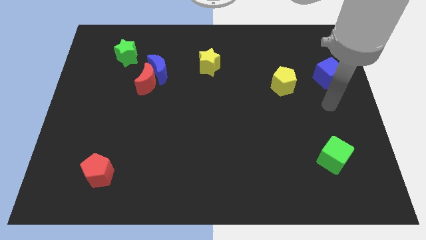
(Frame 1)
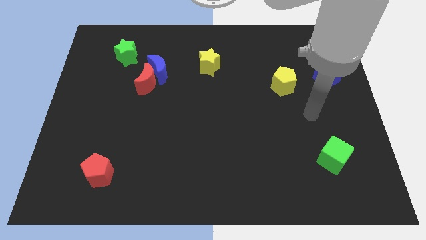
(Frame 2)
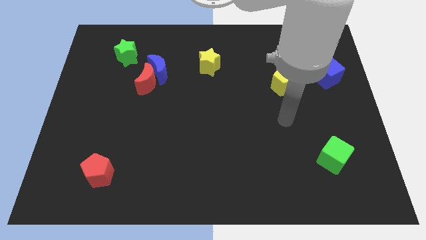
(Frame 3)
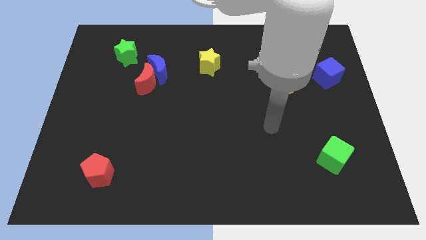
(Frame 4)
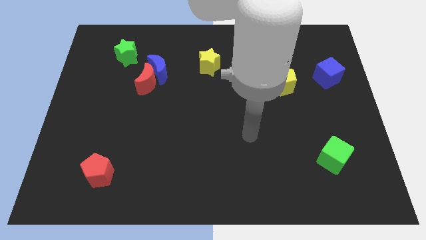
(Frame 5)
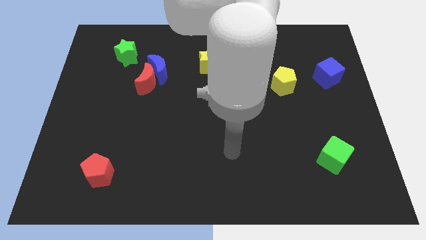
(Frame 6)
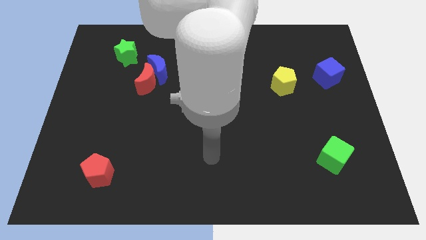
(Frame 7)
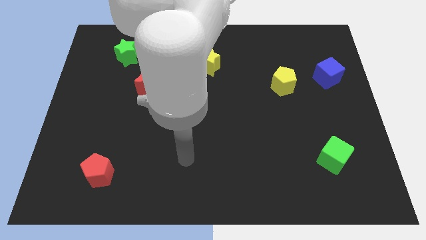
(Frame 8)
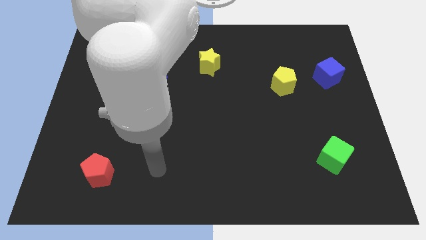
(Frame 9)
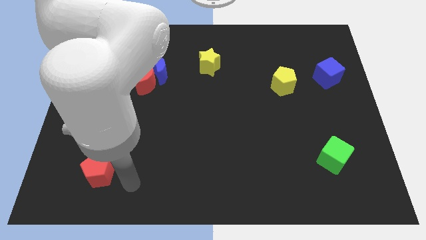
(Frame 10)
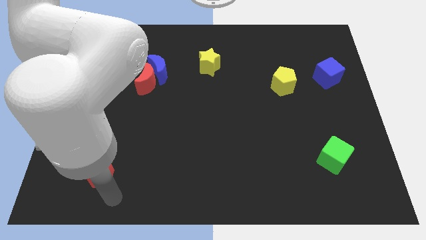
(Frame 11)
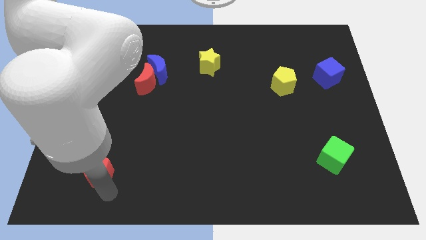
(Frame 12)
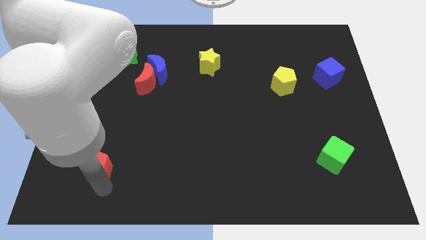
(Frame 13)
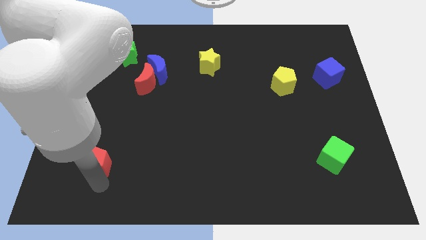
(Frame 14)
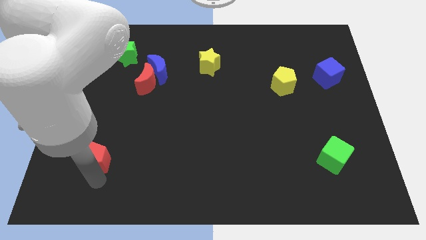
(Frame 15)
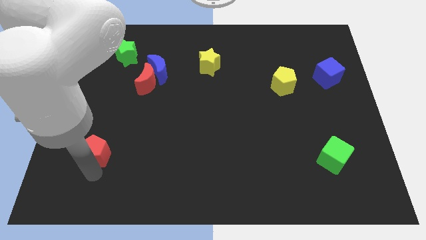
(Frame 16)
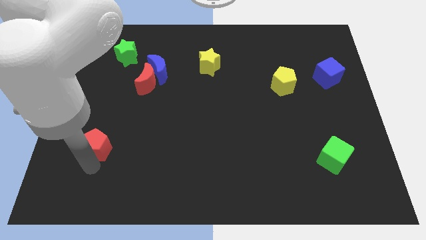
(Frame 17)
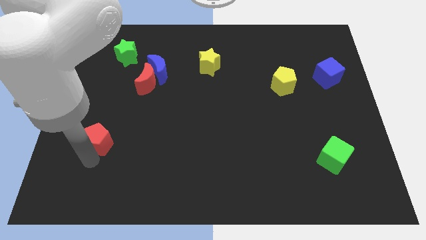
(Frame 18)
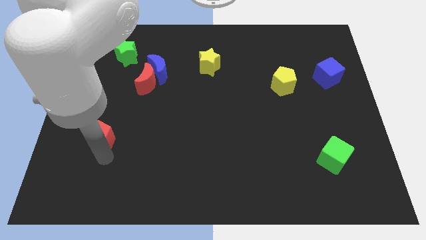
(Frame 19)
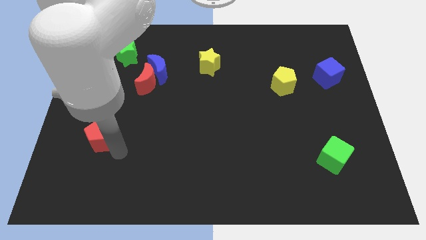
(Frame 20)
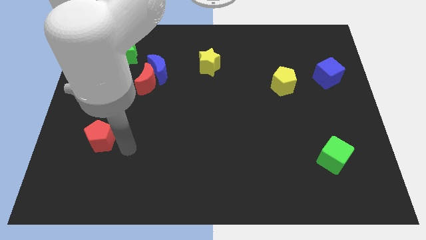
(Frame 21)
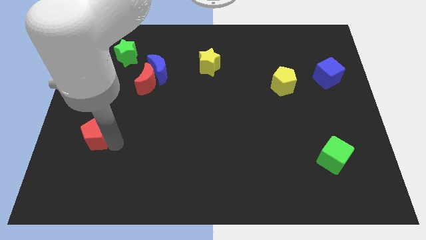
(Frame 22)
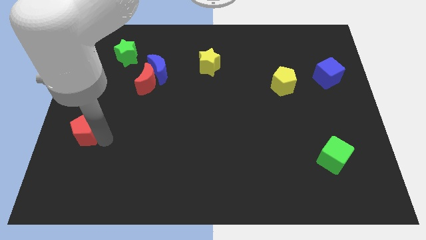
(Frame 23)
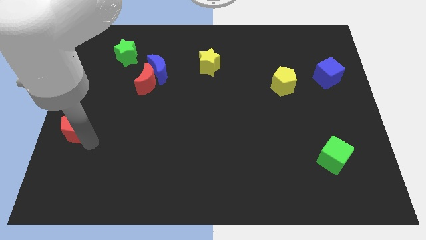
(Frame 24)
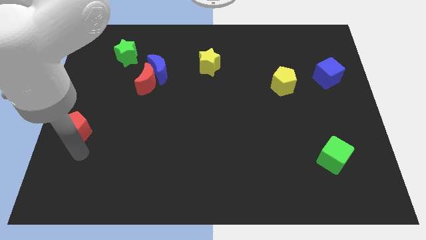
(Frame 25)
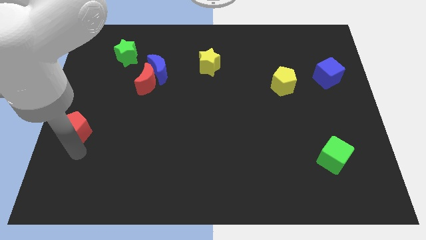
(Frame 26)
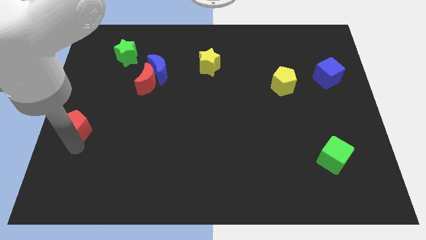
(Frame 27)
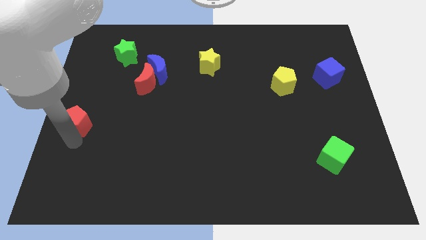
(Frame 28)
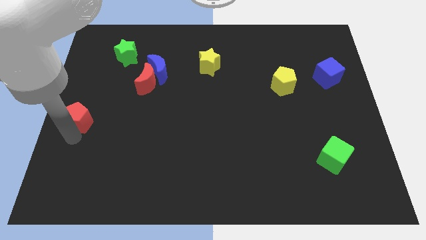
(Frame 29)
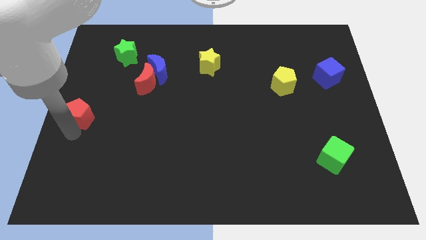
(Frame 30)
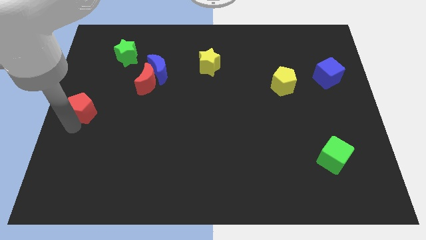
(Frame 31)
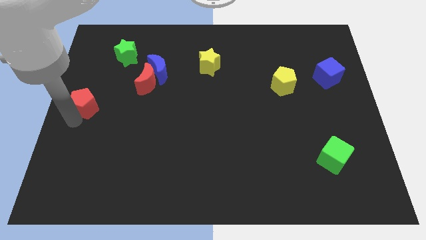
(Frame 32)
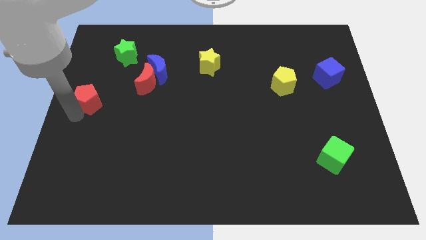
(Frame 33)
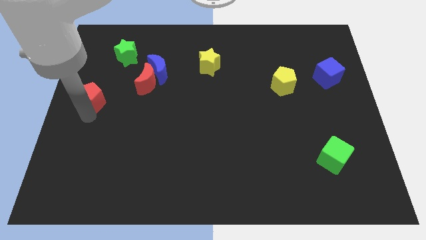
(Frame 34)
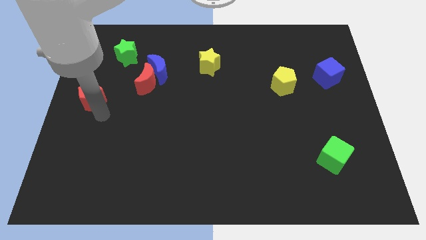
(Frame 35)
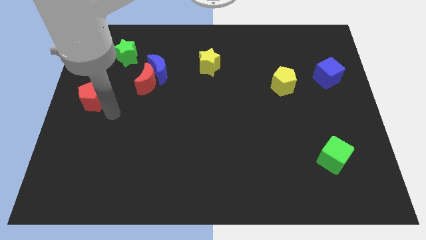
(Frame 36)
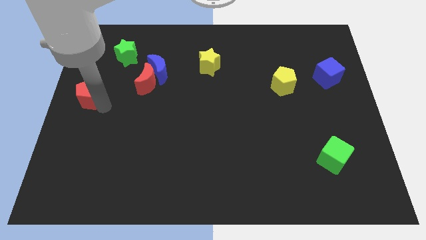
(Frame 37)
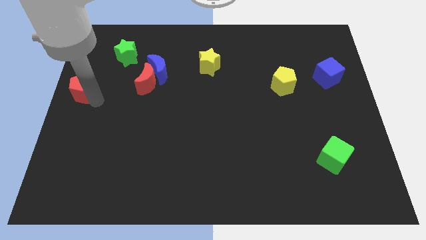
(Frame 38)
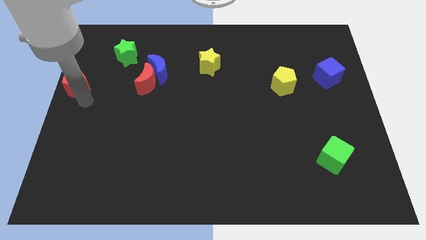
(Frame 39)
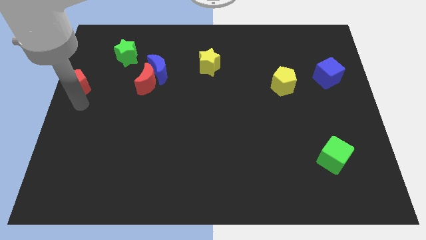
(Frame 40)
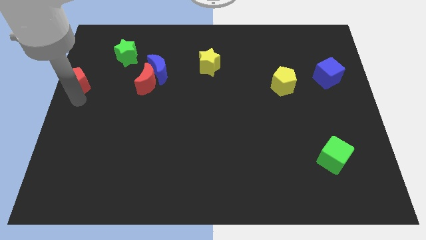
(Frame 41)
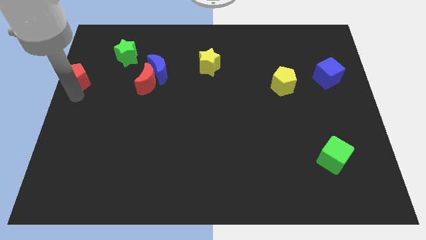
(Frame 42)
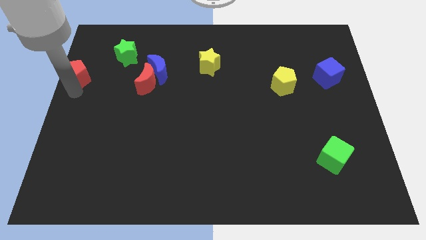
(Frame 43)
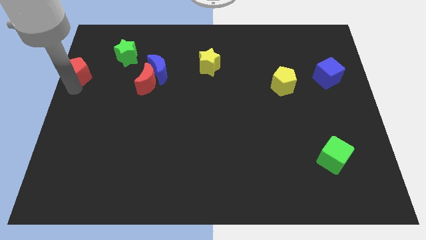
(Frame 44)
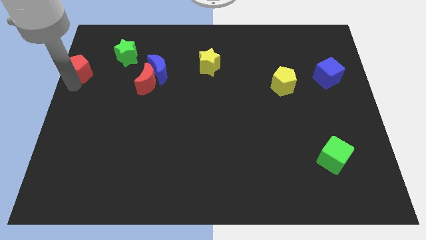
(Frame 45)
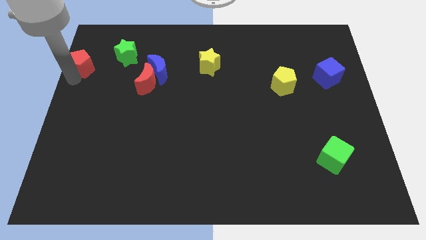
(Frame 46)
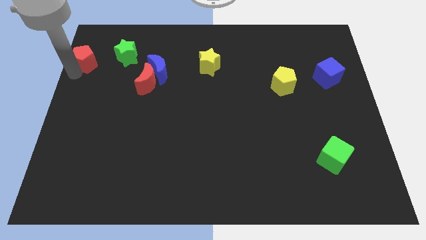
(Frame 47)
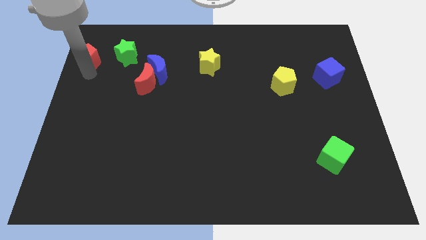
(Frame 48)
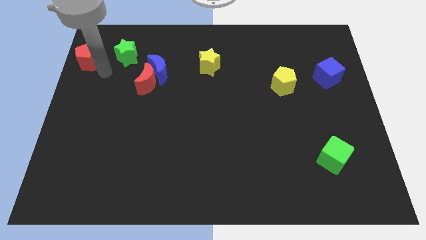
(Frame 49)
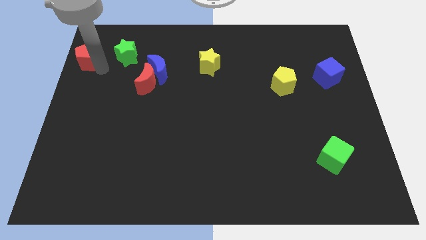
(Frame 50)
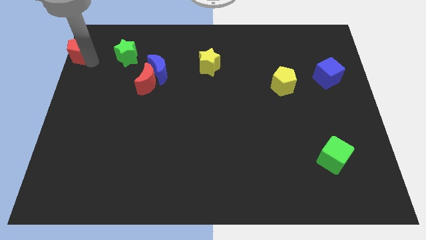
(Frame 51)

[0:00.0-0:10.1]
put the red pentagon to the top left of the board

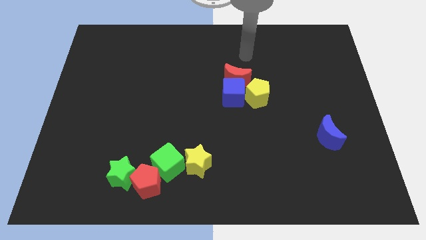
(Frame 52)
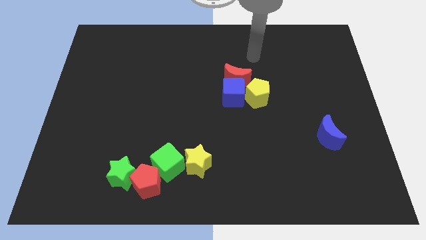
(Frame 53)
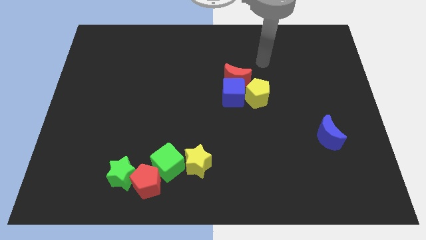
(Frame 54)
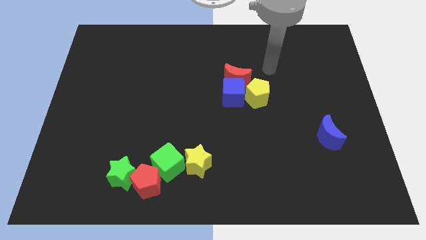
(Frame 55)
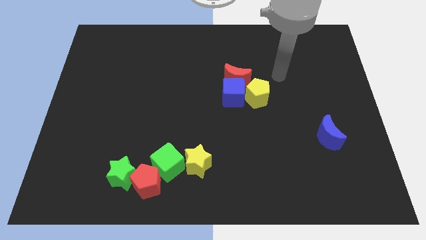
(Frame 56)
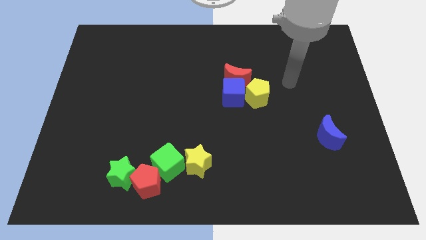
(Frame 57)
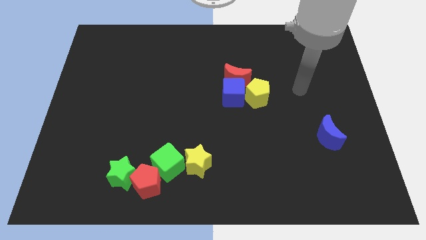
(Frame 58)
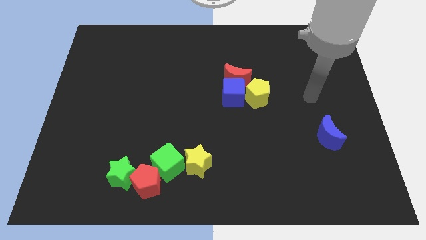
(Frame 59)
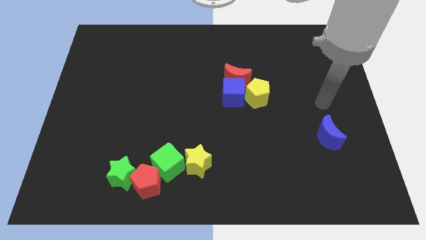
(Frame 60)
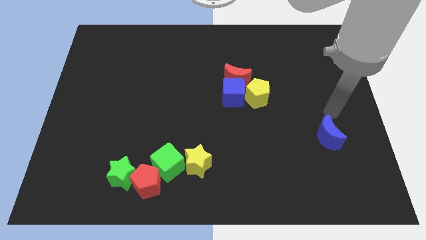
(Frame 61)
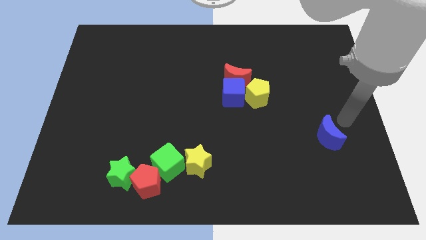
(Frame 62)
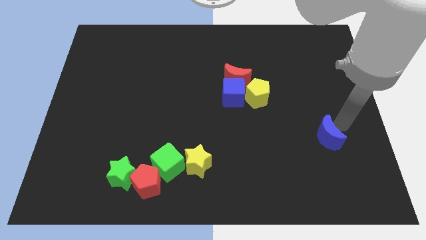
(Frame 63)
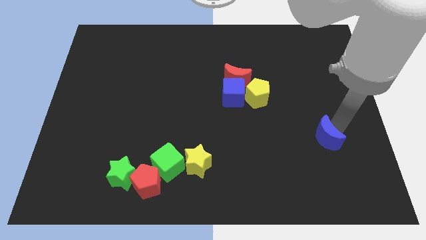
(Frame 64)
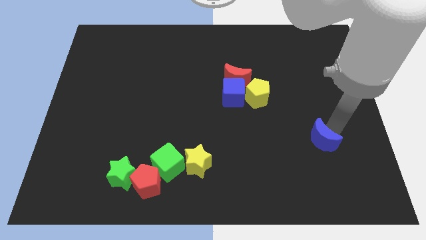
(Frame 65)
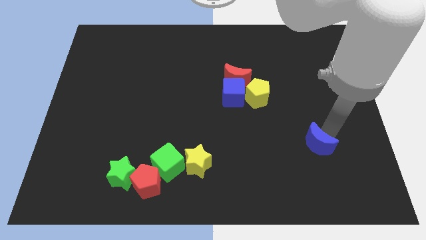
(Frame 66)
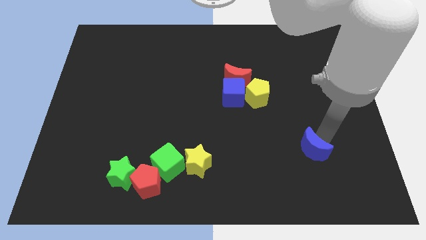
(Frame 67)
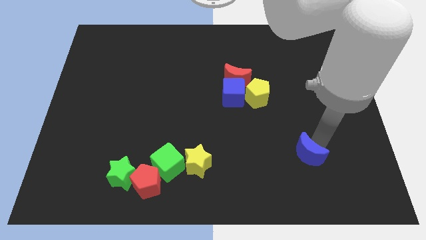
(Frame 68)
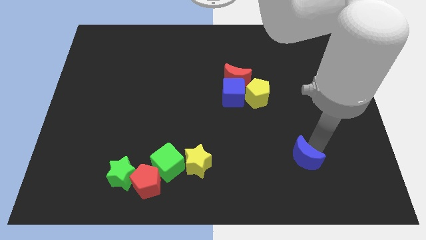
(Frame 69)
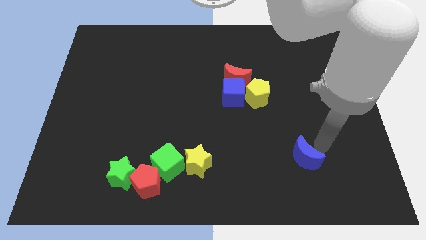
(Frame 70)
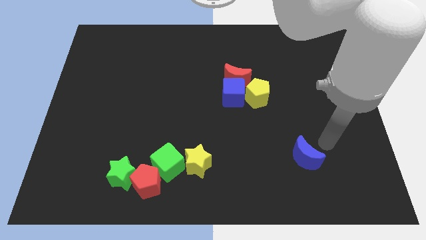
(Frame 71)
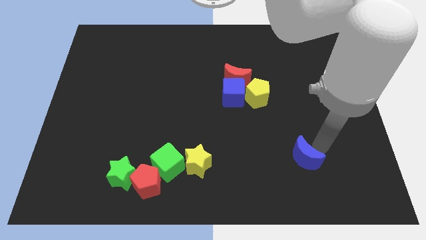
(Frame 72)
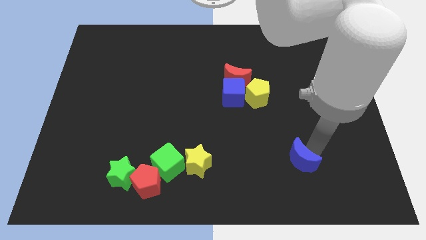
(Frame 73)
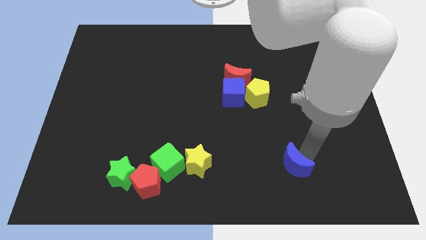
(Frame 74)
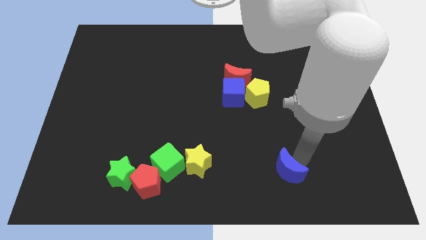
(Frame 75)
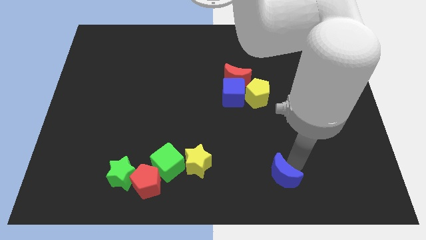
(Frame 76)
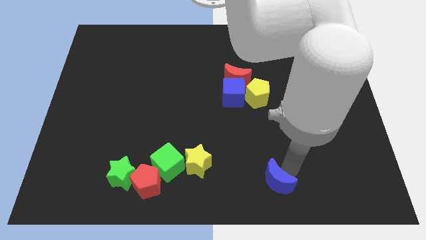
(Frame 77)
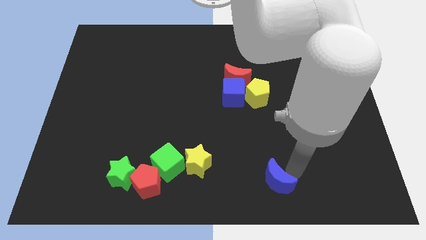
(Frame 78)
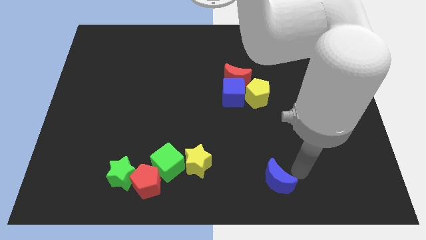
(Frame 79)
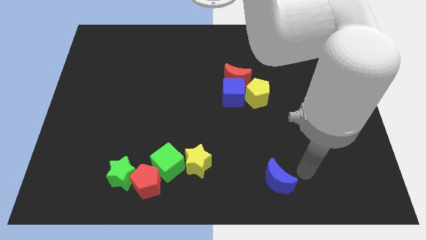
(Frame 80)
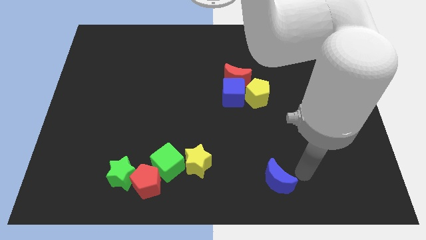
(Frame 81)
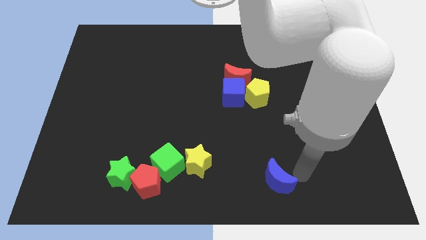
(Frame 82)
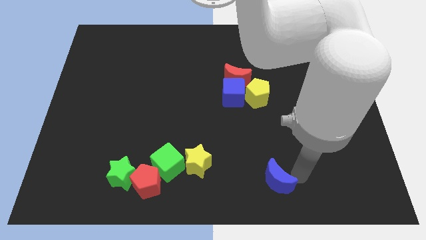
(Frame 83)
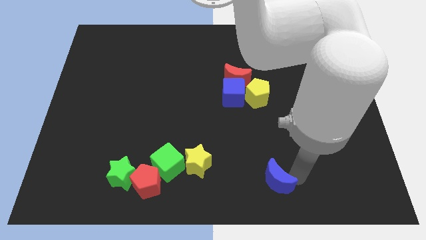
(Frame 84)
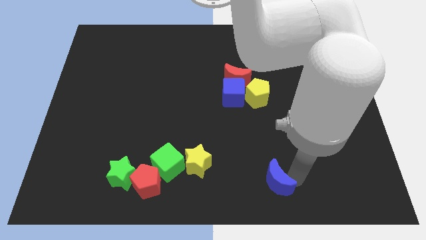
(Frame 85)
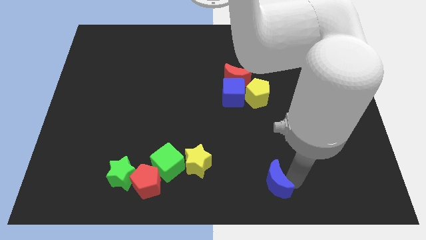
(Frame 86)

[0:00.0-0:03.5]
slide the blue moon to the bottom
